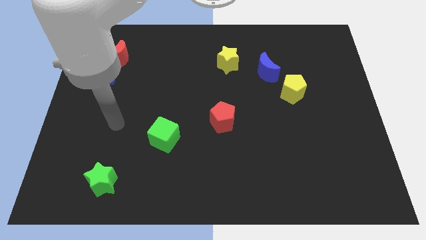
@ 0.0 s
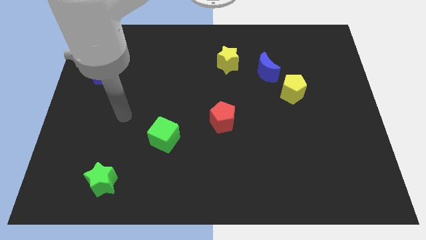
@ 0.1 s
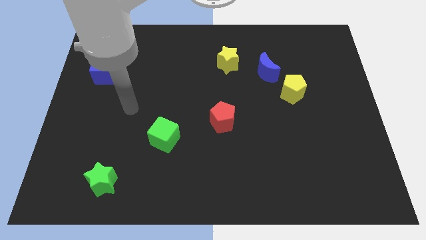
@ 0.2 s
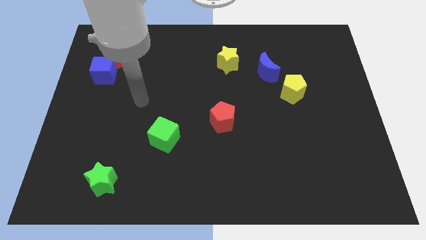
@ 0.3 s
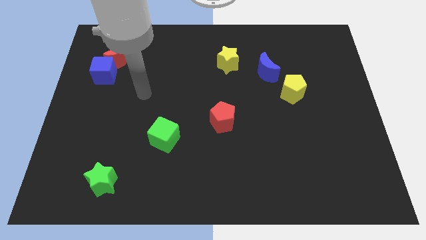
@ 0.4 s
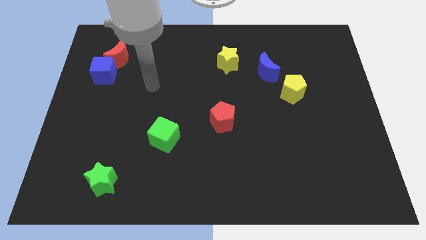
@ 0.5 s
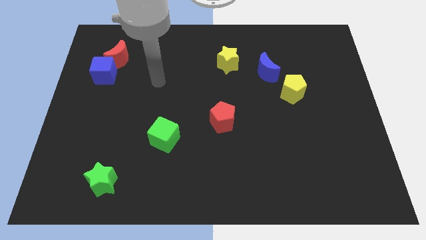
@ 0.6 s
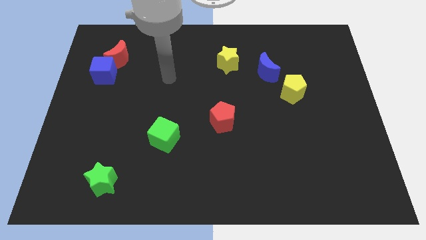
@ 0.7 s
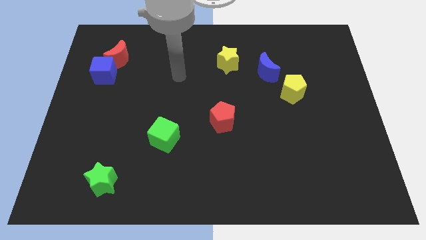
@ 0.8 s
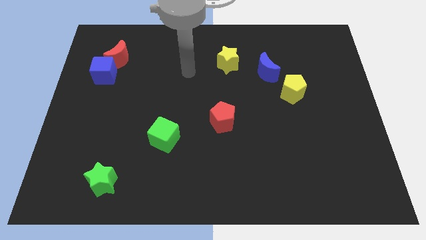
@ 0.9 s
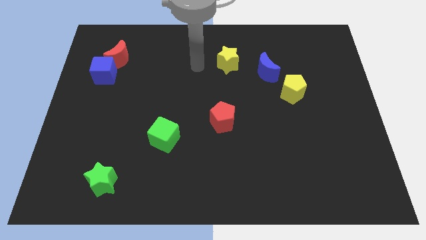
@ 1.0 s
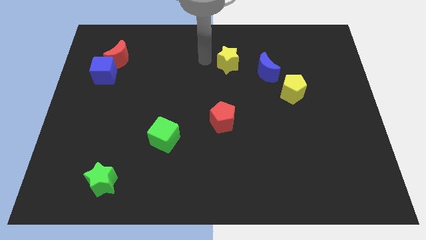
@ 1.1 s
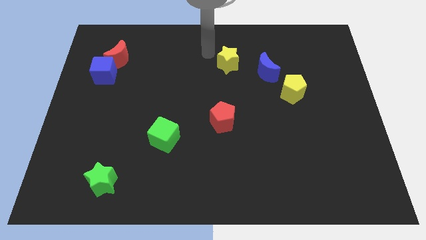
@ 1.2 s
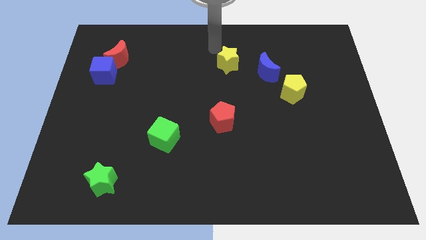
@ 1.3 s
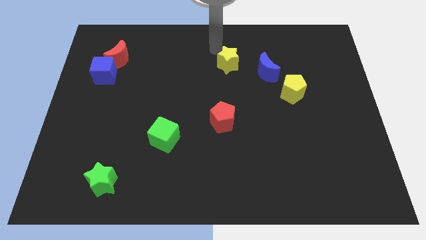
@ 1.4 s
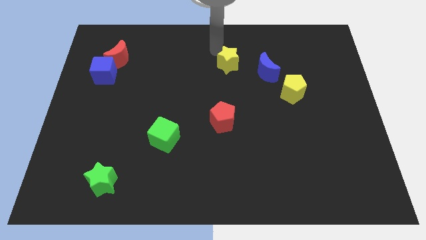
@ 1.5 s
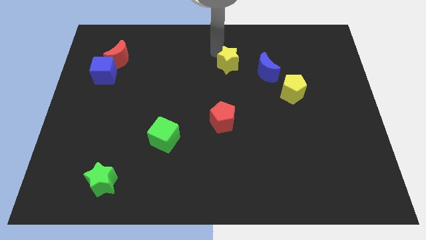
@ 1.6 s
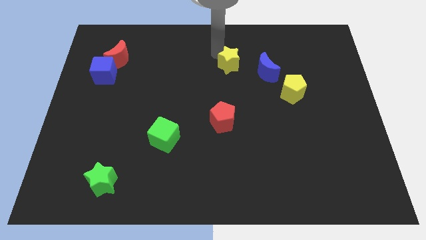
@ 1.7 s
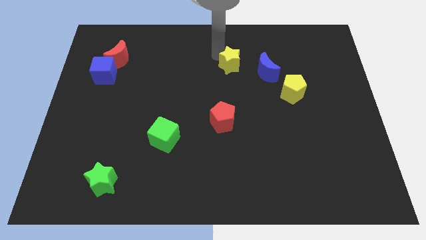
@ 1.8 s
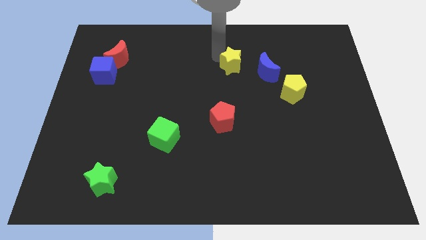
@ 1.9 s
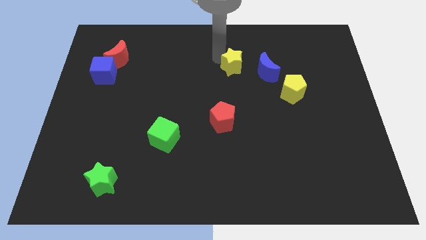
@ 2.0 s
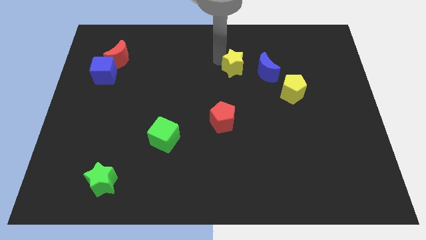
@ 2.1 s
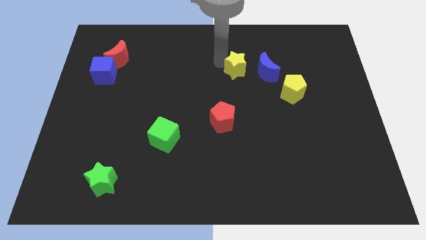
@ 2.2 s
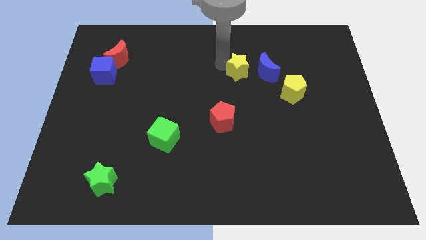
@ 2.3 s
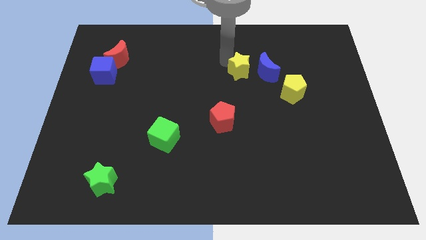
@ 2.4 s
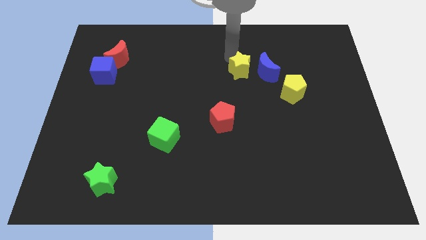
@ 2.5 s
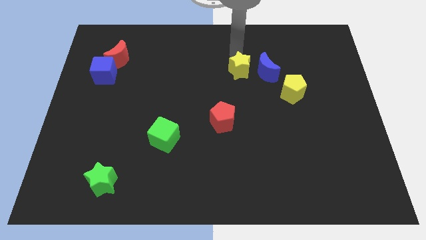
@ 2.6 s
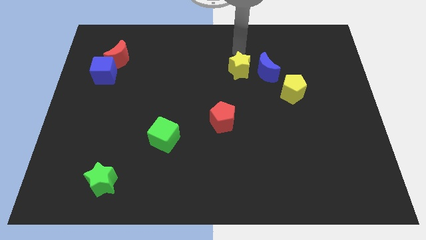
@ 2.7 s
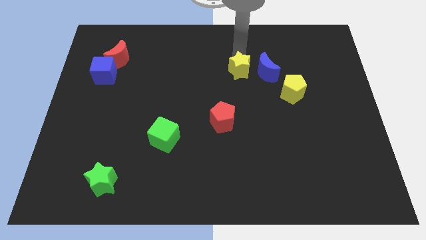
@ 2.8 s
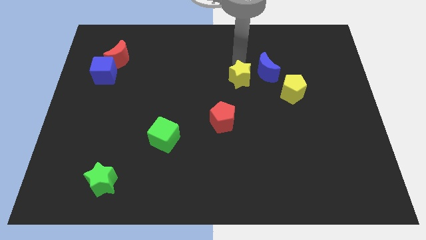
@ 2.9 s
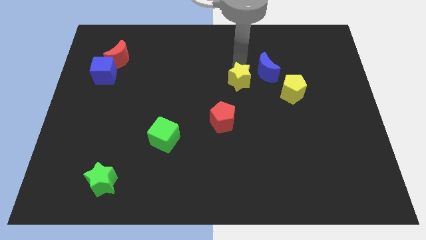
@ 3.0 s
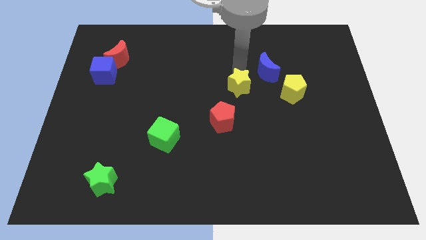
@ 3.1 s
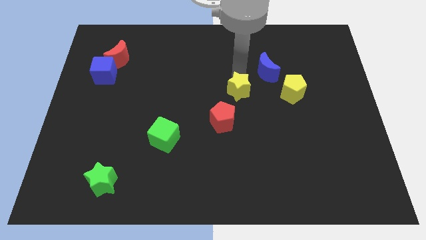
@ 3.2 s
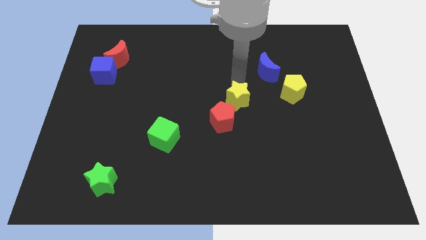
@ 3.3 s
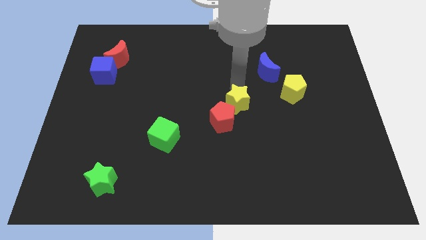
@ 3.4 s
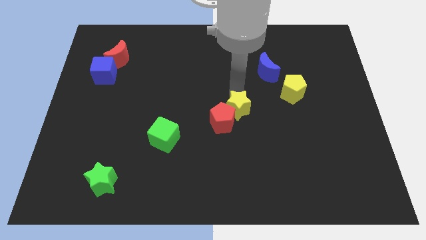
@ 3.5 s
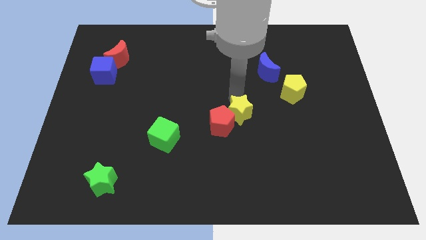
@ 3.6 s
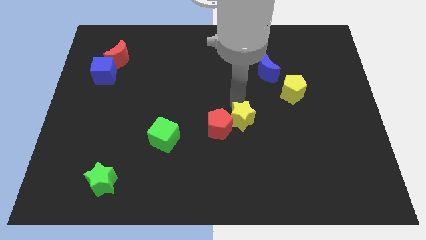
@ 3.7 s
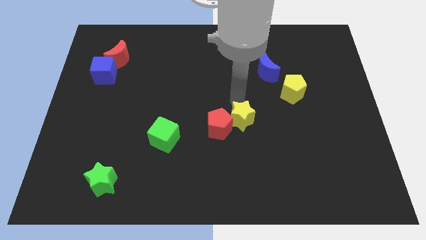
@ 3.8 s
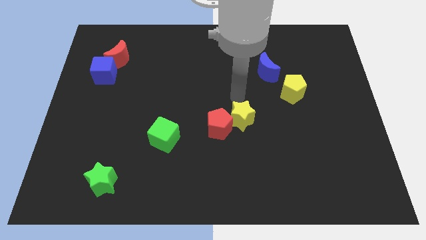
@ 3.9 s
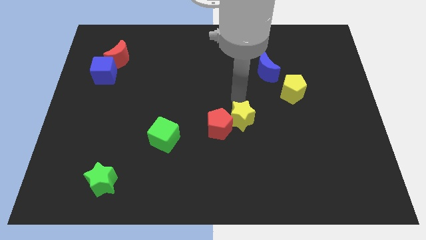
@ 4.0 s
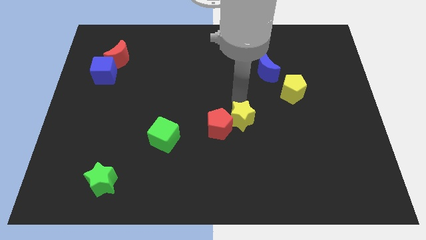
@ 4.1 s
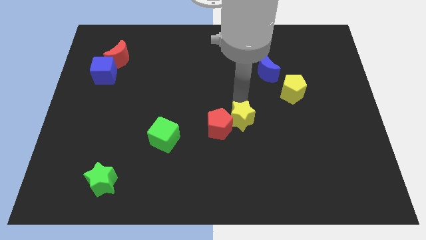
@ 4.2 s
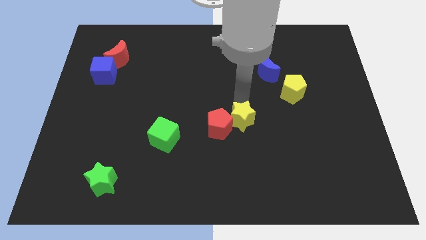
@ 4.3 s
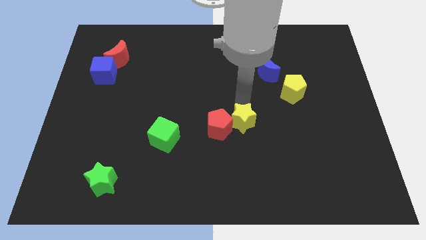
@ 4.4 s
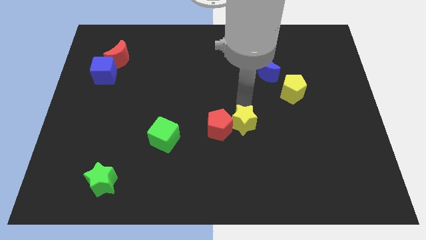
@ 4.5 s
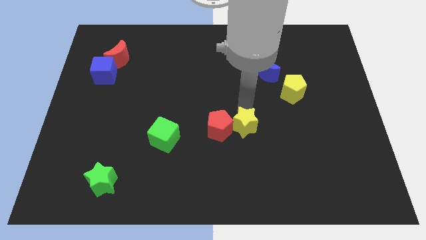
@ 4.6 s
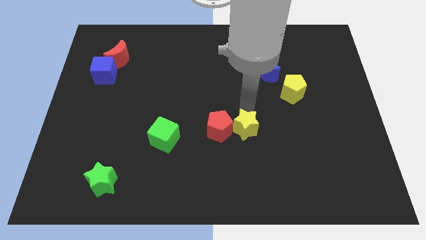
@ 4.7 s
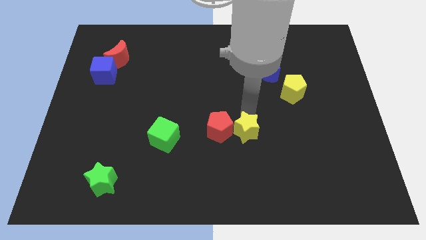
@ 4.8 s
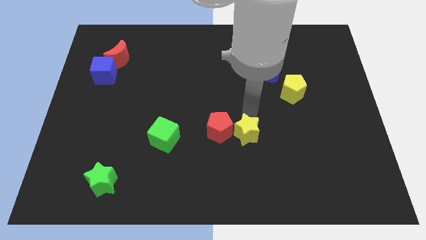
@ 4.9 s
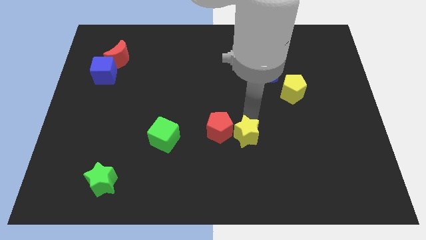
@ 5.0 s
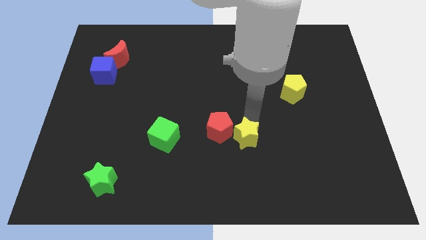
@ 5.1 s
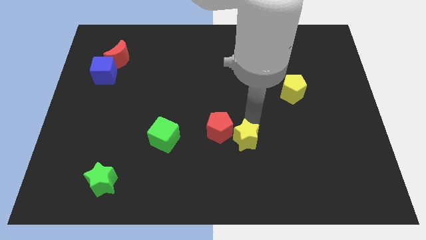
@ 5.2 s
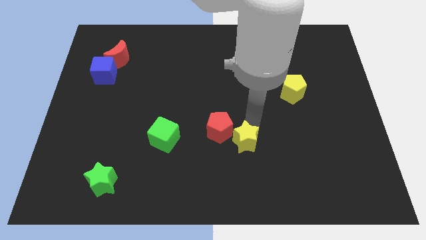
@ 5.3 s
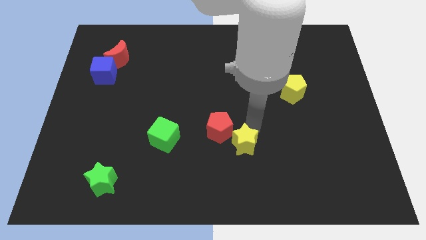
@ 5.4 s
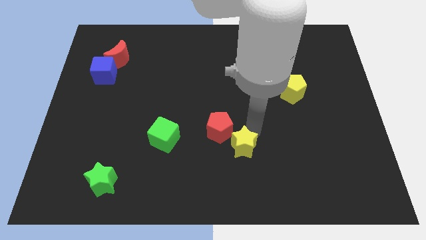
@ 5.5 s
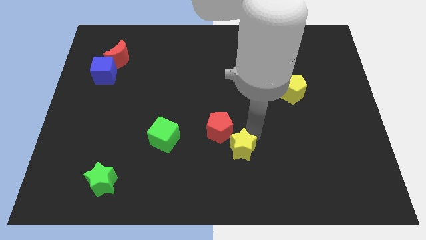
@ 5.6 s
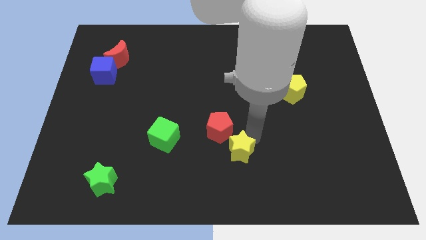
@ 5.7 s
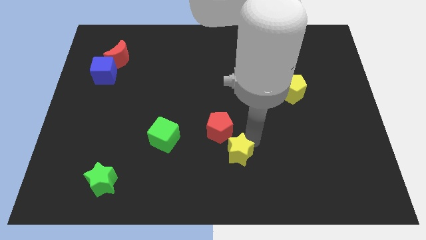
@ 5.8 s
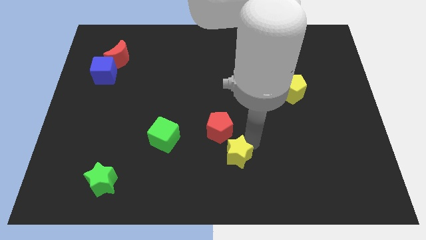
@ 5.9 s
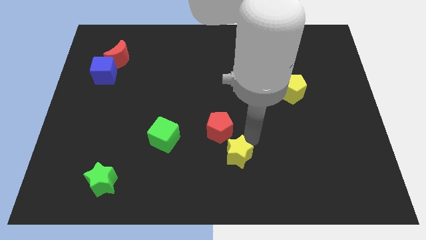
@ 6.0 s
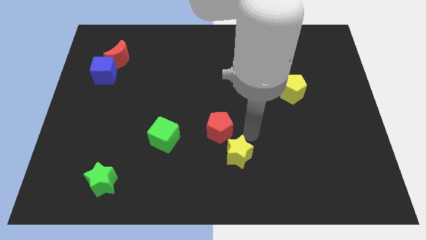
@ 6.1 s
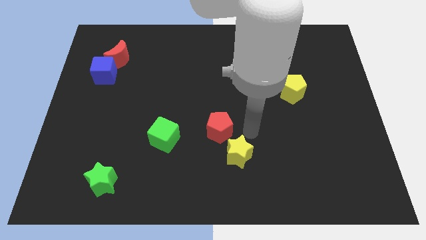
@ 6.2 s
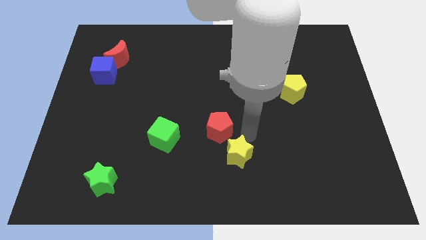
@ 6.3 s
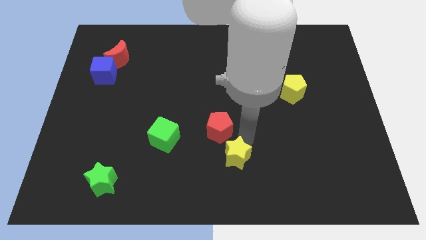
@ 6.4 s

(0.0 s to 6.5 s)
push the yellow star to the bottom side

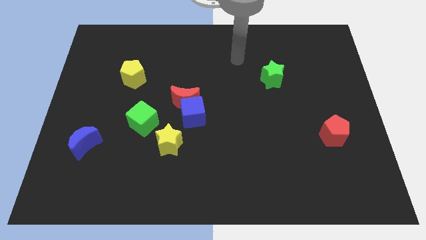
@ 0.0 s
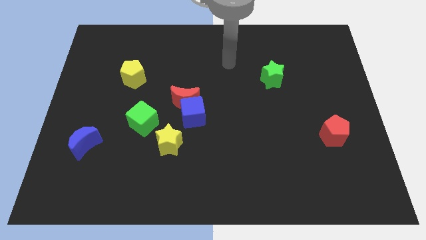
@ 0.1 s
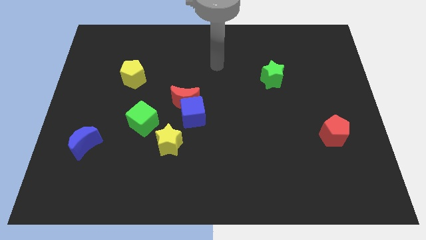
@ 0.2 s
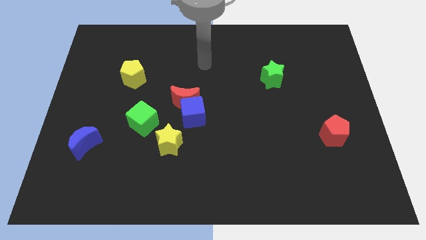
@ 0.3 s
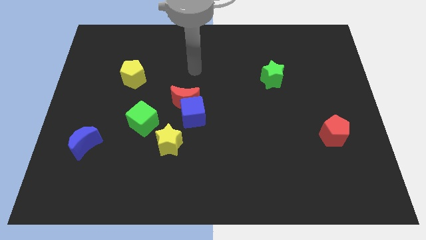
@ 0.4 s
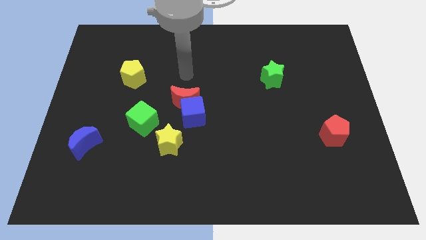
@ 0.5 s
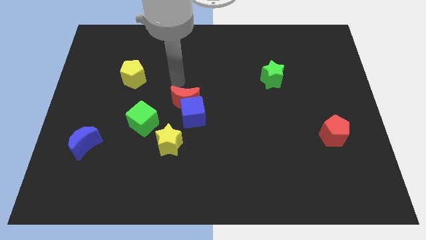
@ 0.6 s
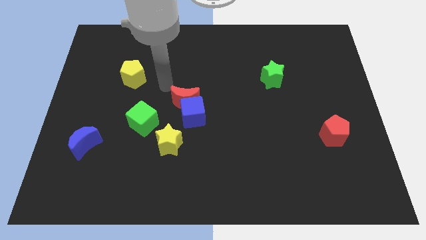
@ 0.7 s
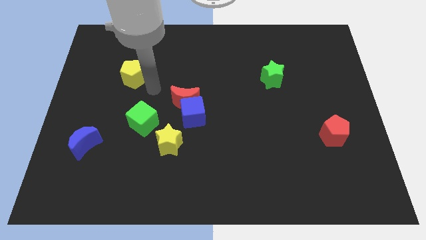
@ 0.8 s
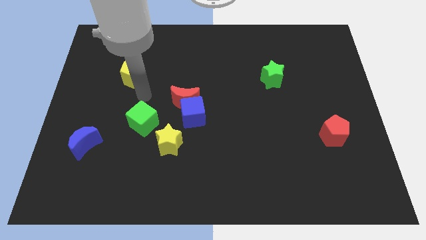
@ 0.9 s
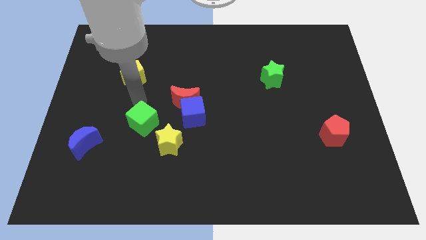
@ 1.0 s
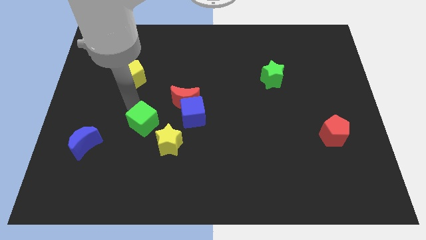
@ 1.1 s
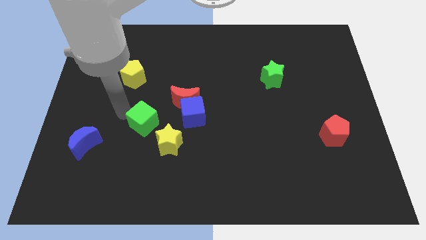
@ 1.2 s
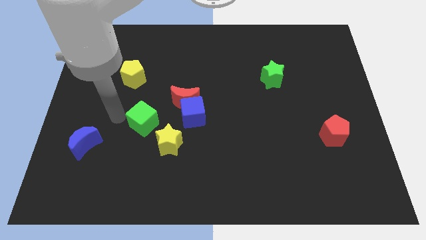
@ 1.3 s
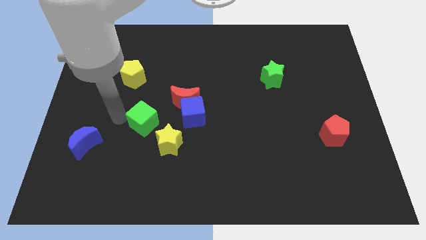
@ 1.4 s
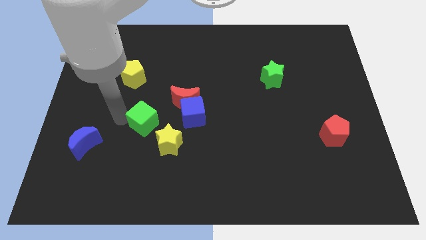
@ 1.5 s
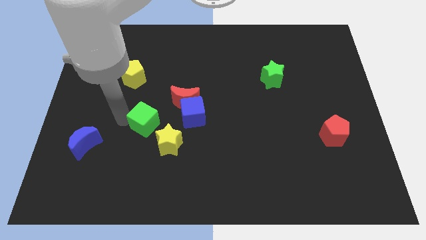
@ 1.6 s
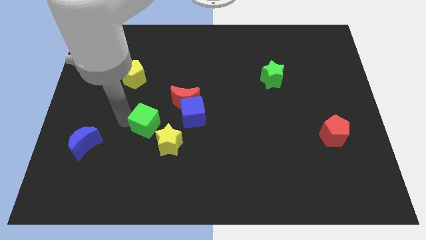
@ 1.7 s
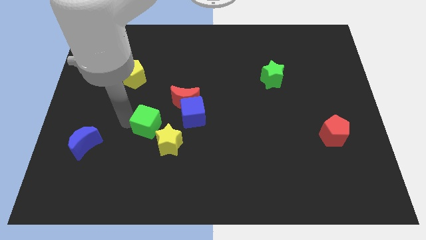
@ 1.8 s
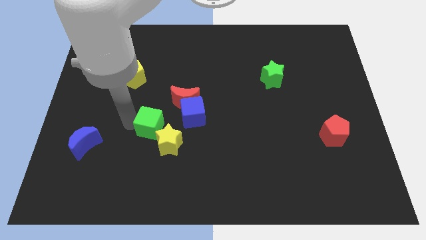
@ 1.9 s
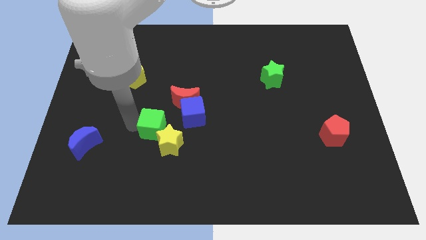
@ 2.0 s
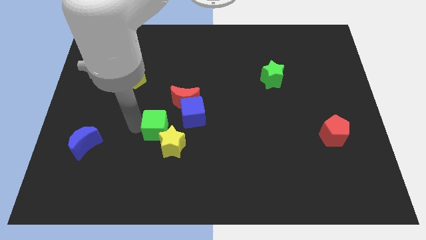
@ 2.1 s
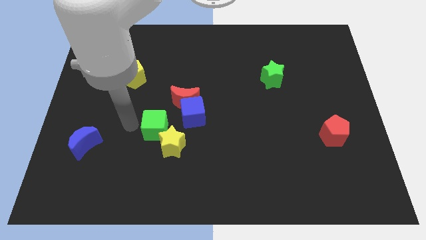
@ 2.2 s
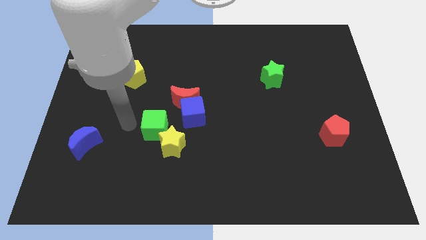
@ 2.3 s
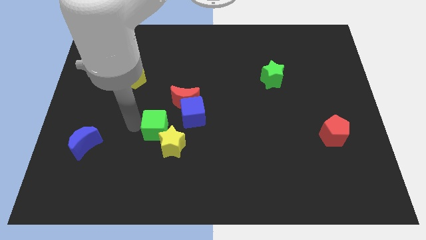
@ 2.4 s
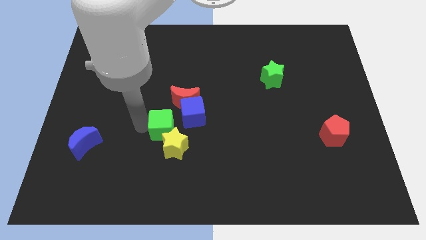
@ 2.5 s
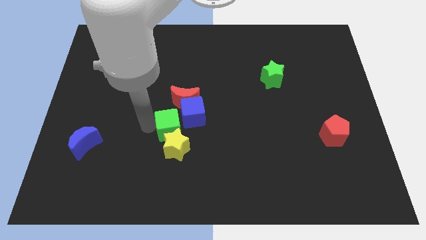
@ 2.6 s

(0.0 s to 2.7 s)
move the green cube to the middle of the board
